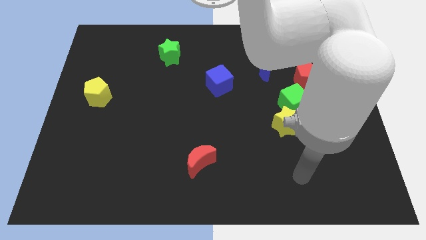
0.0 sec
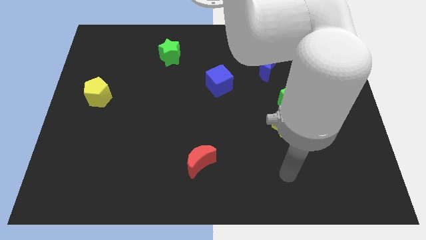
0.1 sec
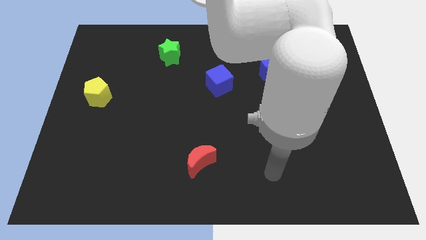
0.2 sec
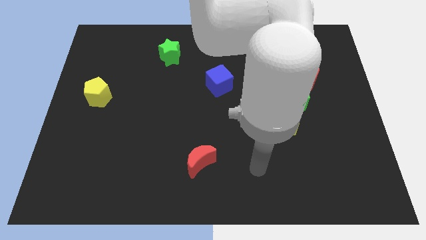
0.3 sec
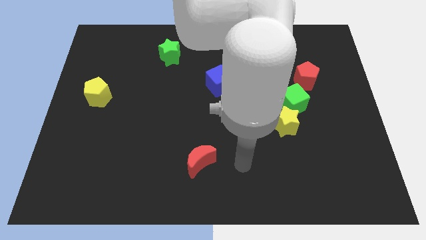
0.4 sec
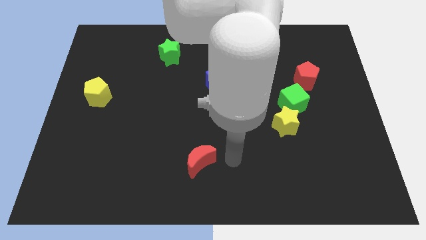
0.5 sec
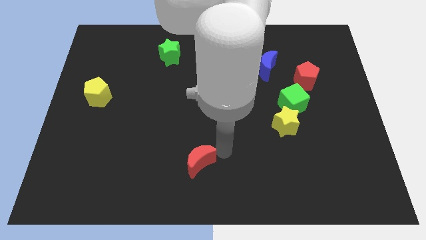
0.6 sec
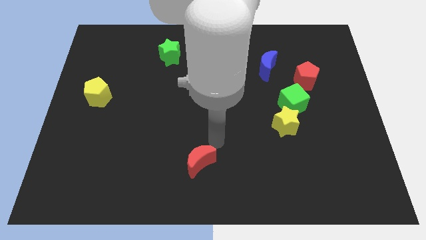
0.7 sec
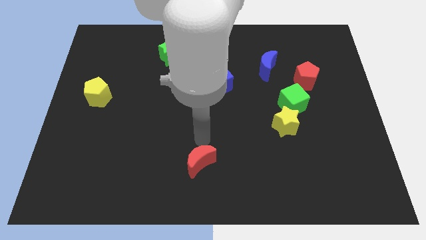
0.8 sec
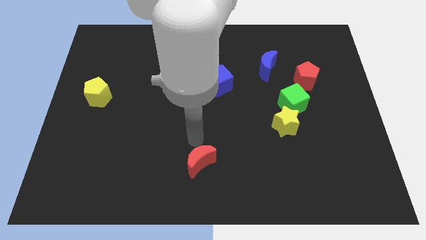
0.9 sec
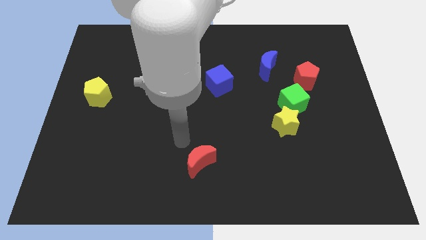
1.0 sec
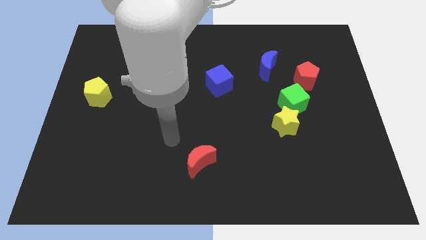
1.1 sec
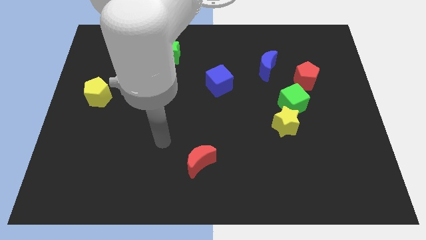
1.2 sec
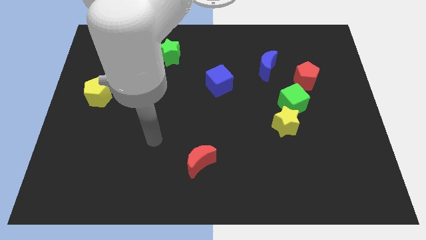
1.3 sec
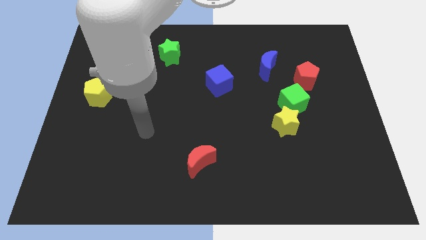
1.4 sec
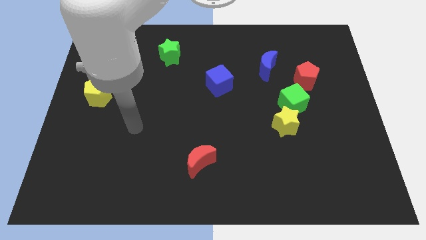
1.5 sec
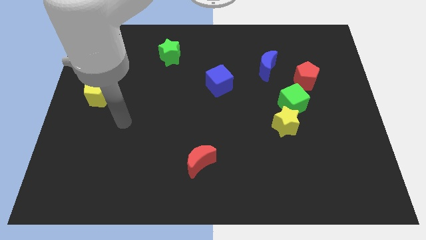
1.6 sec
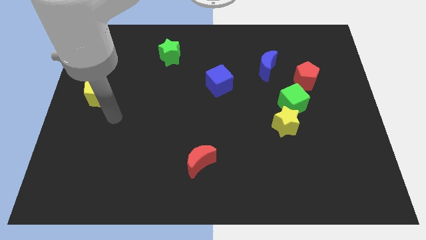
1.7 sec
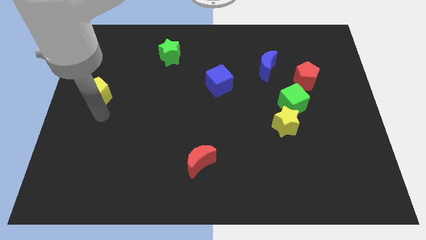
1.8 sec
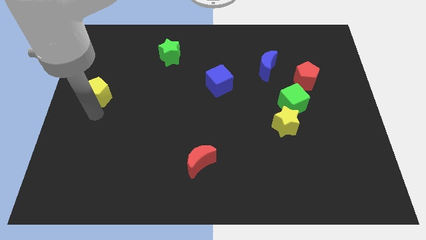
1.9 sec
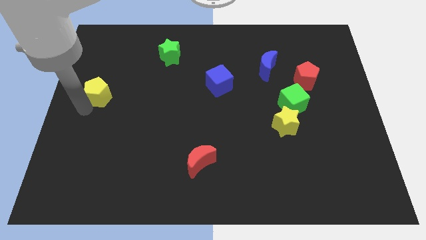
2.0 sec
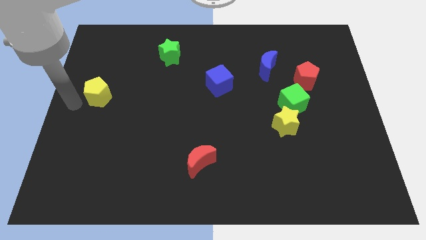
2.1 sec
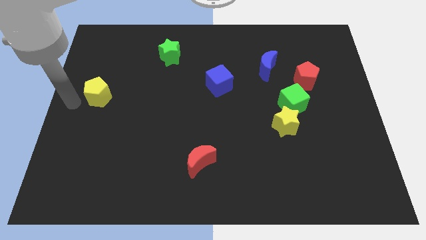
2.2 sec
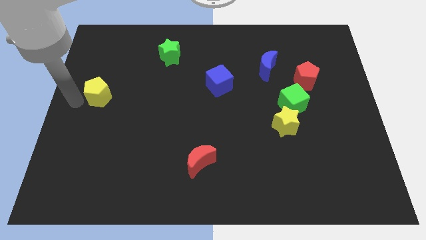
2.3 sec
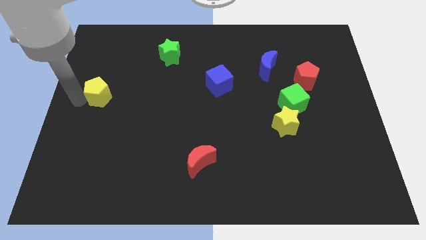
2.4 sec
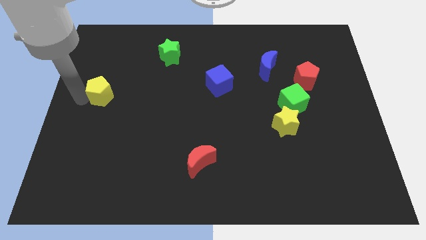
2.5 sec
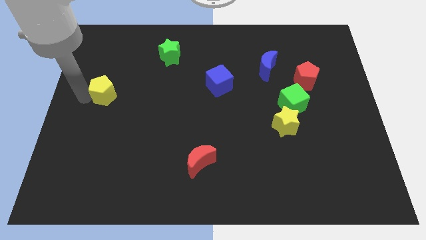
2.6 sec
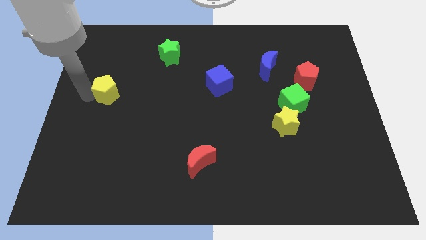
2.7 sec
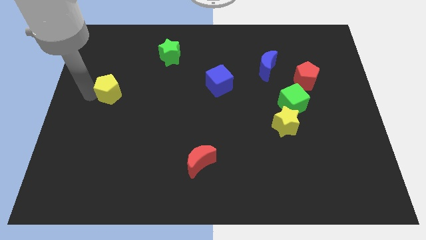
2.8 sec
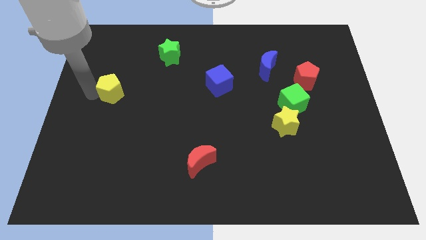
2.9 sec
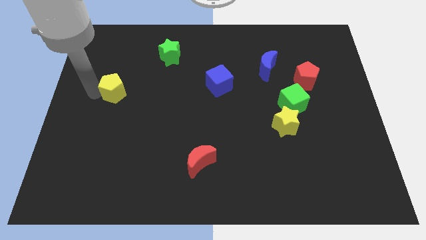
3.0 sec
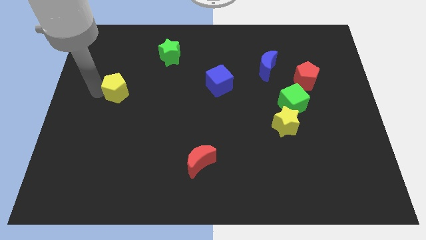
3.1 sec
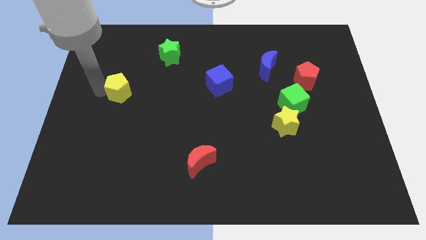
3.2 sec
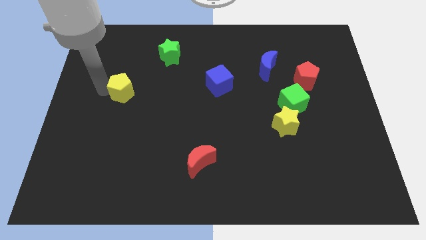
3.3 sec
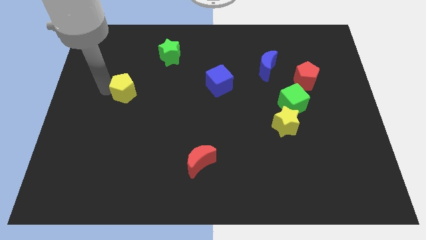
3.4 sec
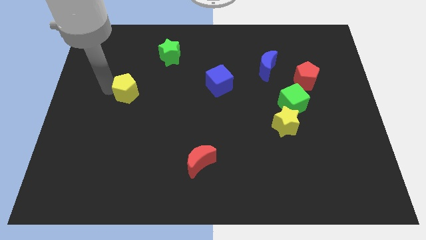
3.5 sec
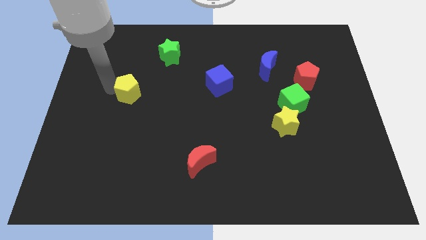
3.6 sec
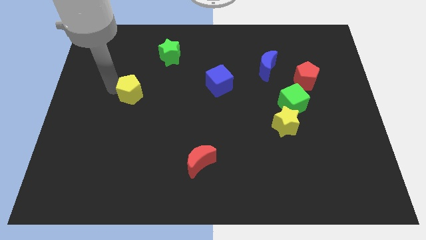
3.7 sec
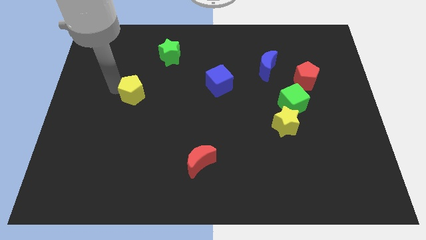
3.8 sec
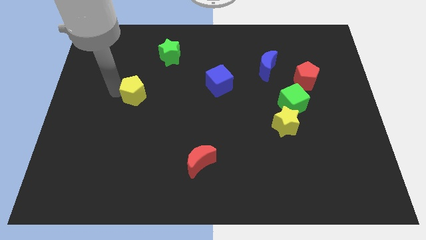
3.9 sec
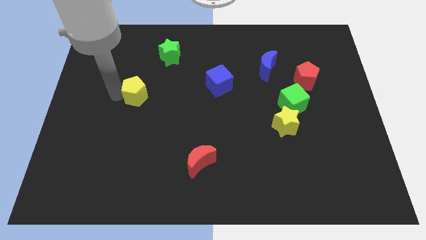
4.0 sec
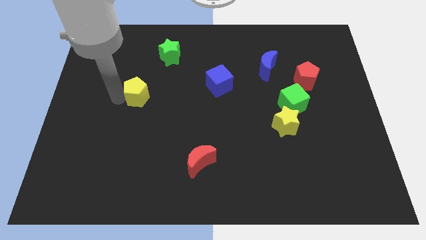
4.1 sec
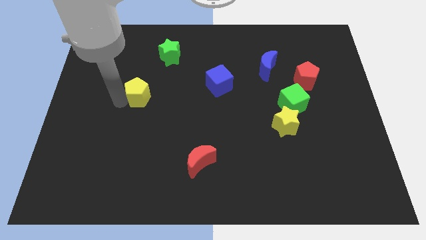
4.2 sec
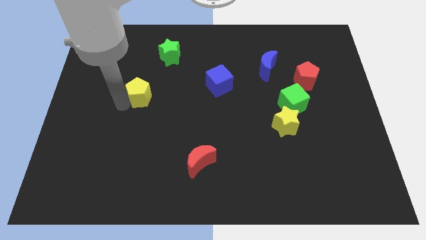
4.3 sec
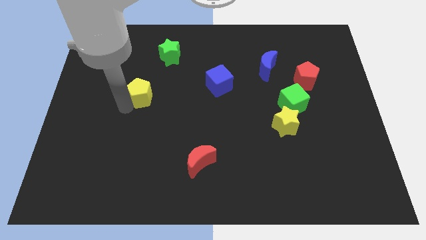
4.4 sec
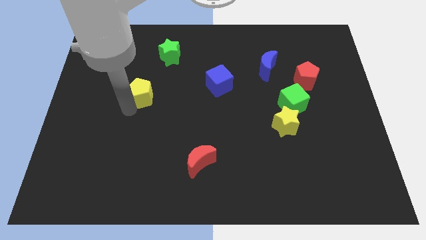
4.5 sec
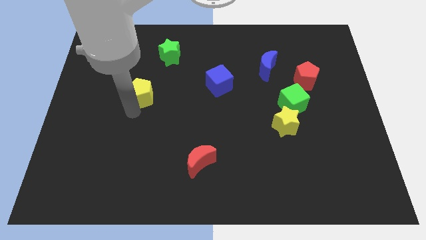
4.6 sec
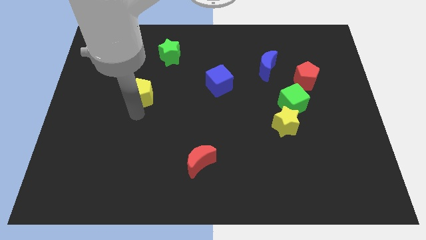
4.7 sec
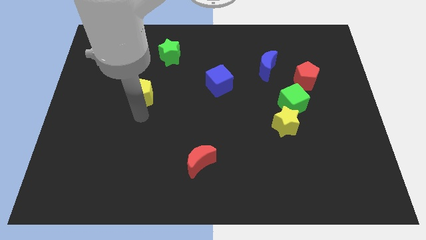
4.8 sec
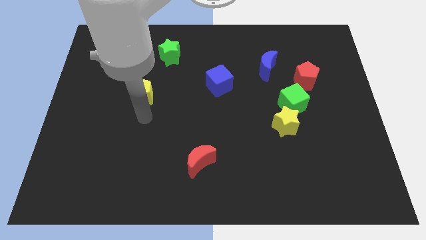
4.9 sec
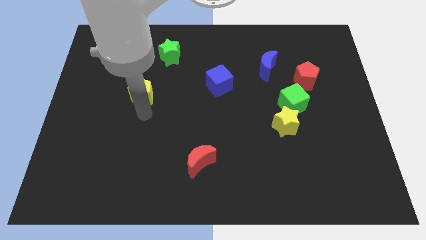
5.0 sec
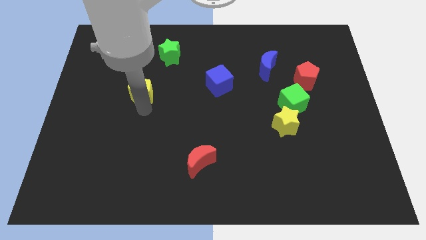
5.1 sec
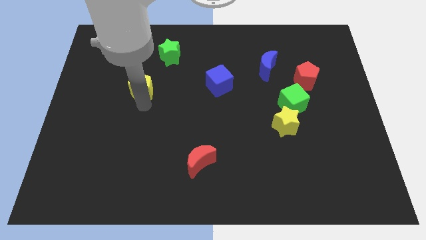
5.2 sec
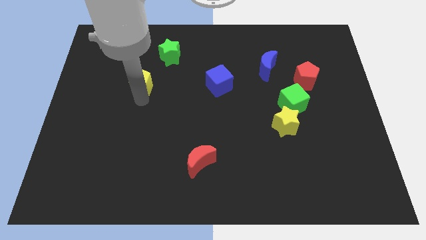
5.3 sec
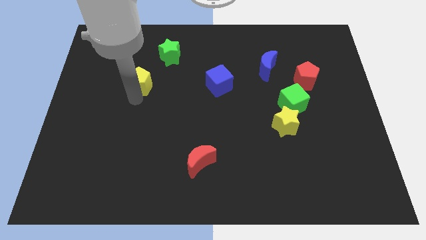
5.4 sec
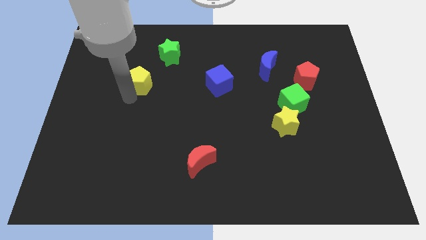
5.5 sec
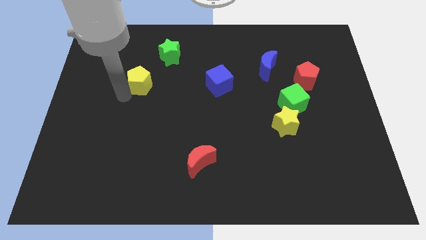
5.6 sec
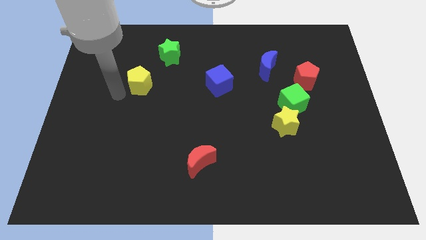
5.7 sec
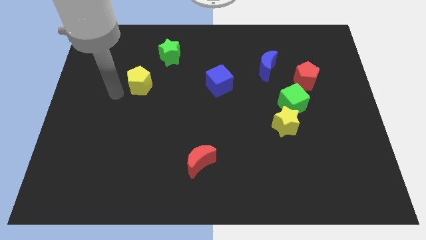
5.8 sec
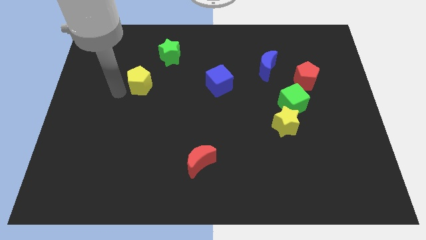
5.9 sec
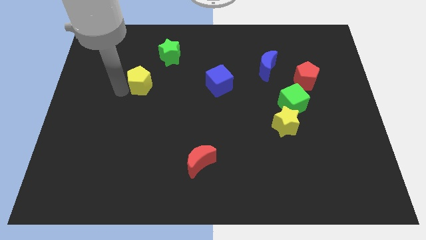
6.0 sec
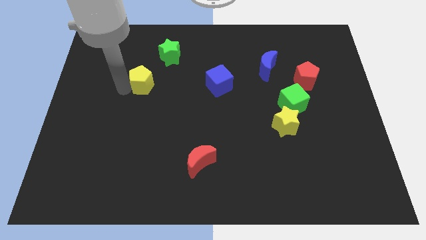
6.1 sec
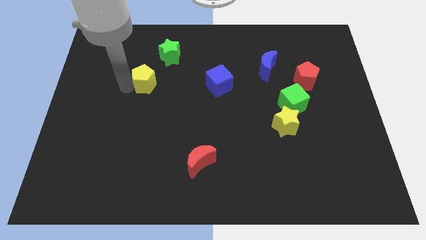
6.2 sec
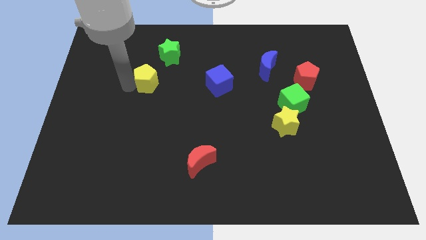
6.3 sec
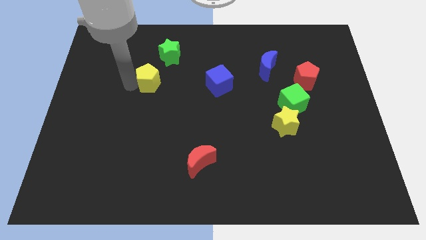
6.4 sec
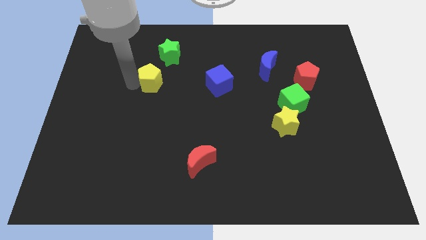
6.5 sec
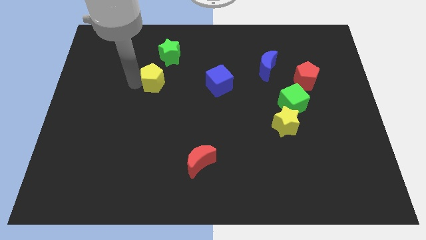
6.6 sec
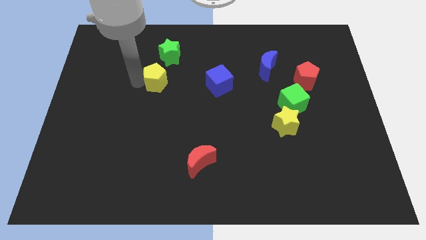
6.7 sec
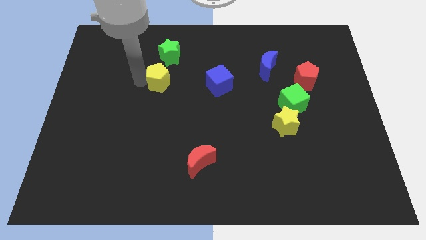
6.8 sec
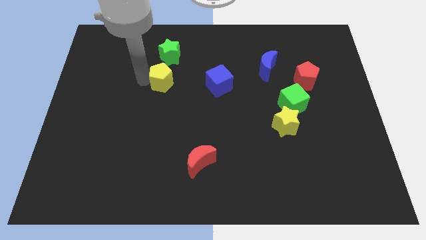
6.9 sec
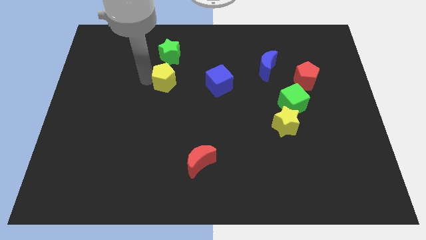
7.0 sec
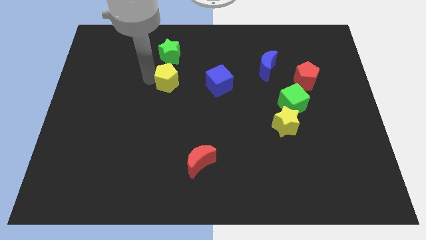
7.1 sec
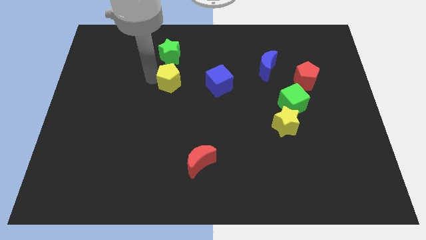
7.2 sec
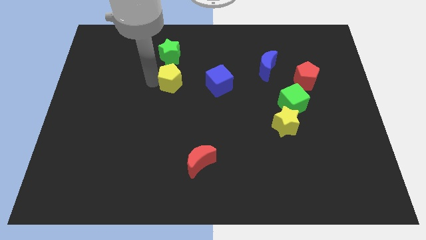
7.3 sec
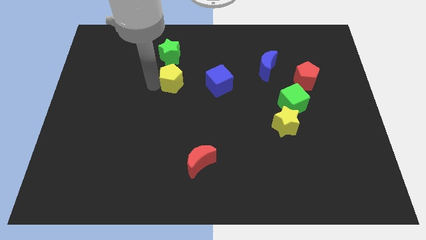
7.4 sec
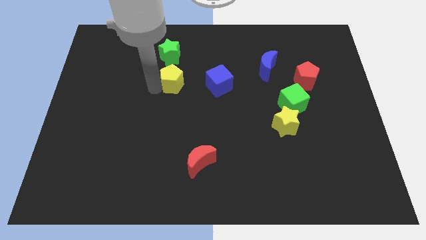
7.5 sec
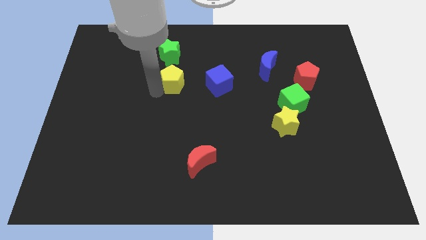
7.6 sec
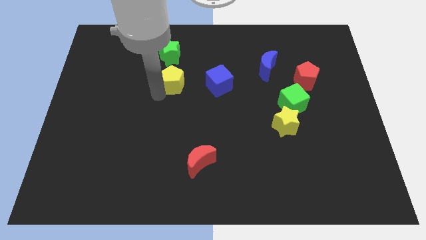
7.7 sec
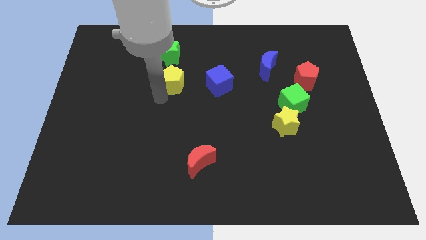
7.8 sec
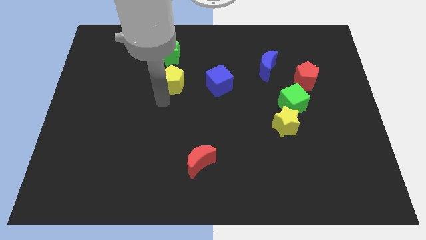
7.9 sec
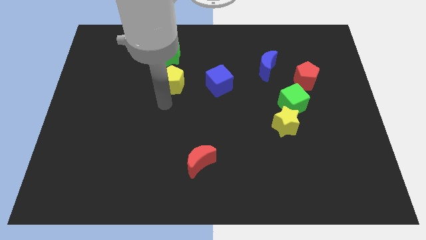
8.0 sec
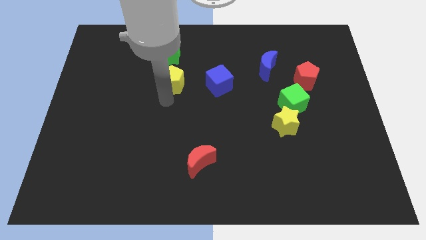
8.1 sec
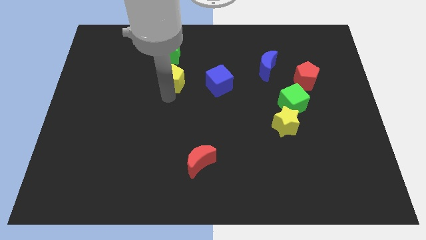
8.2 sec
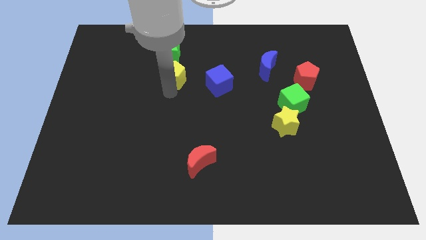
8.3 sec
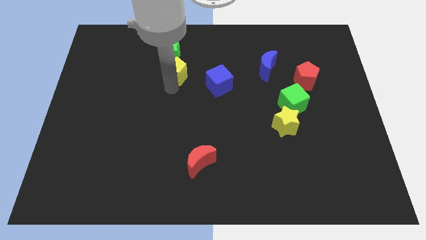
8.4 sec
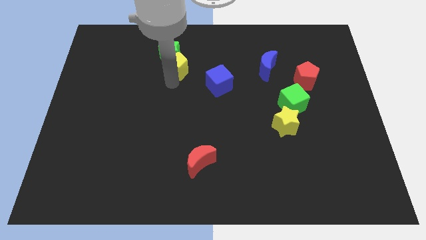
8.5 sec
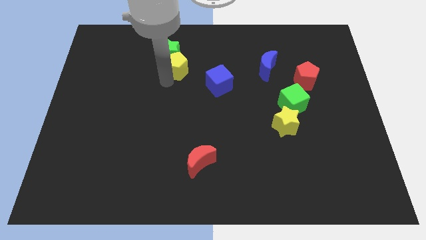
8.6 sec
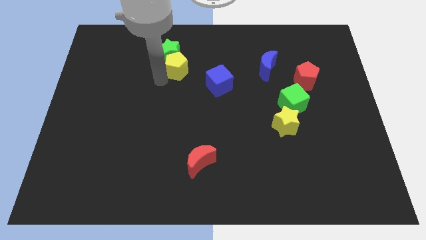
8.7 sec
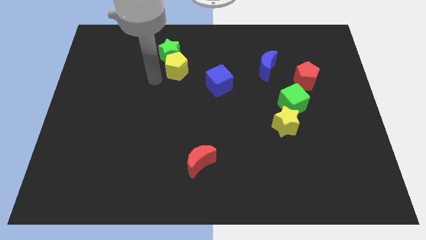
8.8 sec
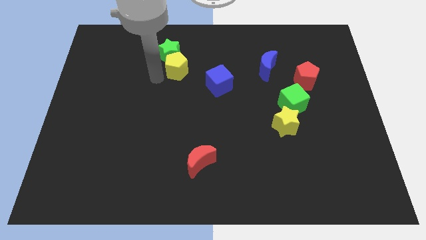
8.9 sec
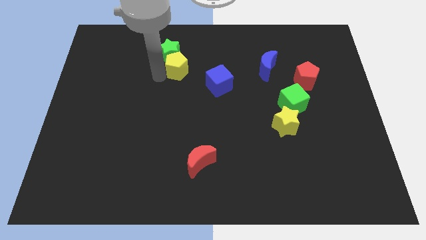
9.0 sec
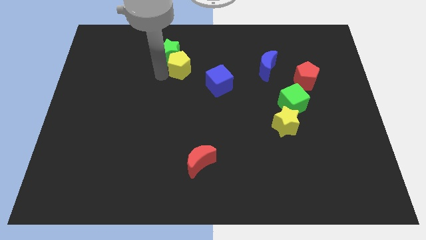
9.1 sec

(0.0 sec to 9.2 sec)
push the yellow pentagon right of the green star
